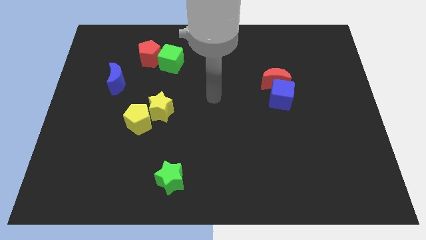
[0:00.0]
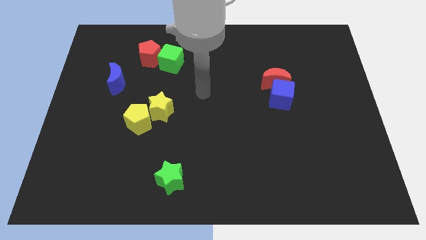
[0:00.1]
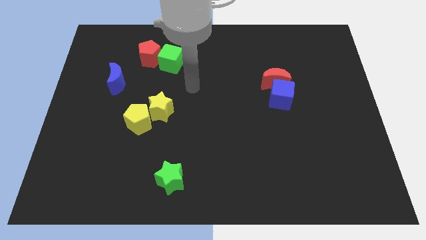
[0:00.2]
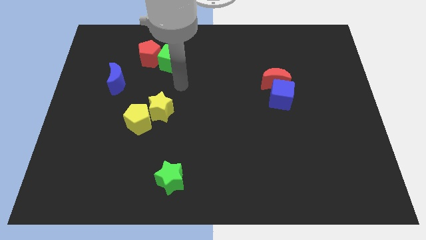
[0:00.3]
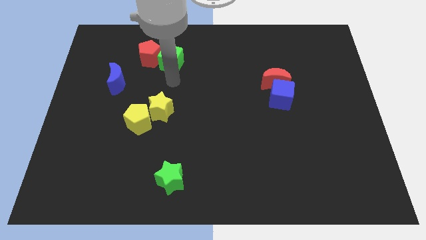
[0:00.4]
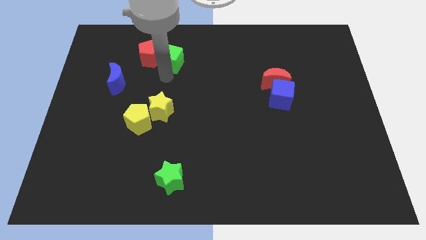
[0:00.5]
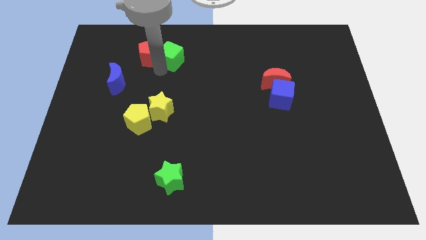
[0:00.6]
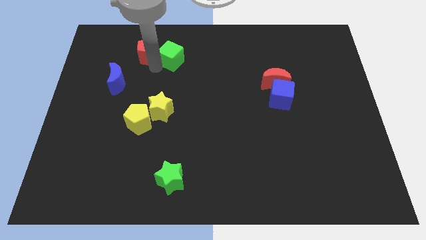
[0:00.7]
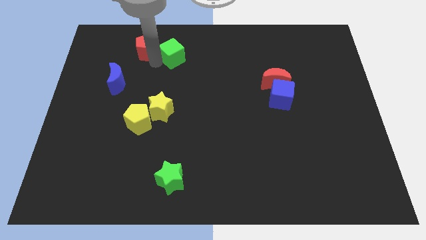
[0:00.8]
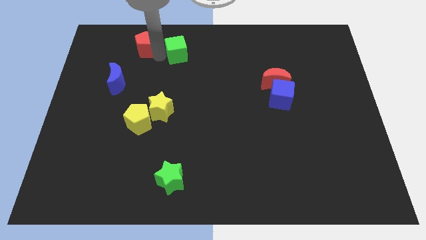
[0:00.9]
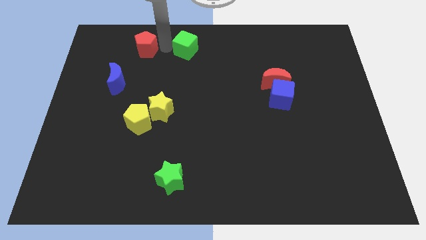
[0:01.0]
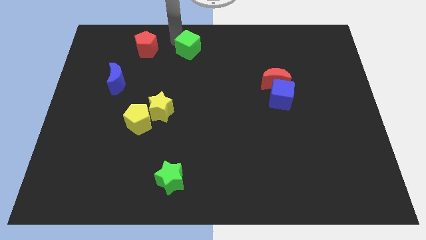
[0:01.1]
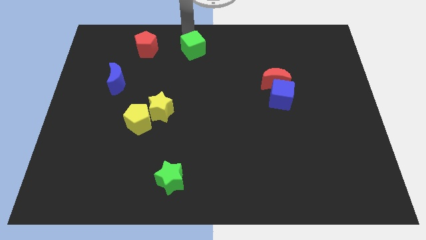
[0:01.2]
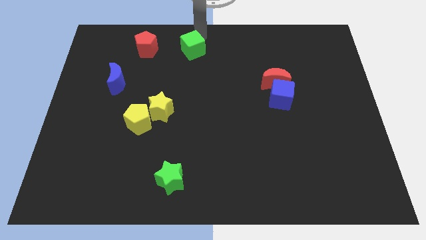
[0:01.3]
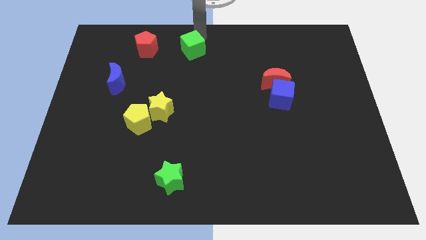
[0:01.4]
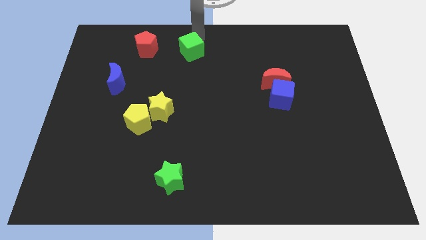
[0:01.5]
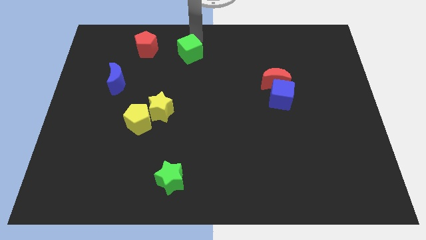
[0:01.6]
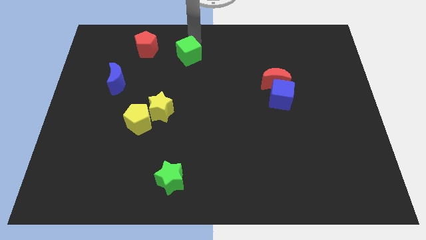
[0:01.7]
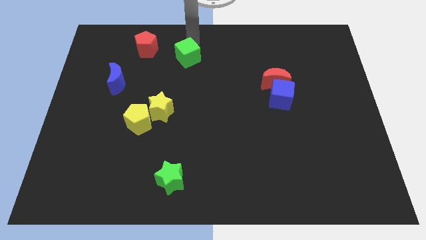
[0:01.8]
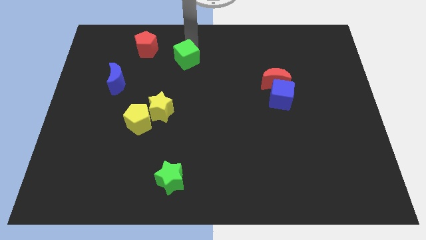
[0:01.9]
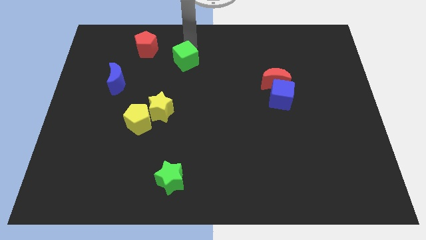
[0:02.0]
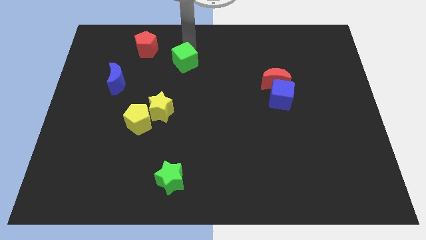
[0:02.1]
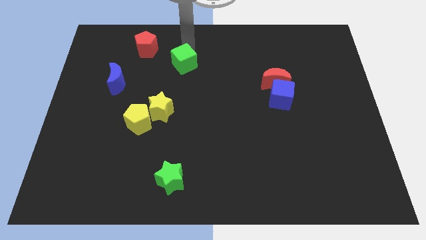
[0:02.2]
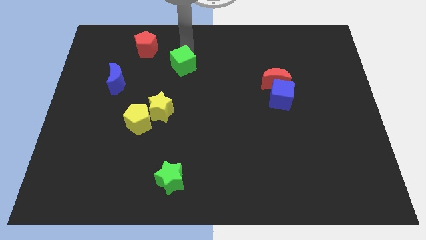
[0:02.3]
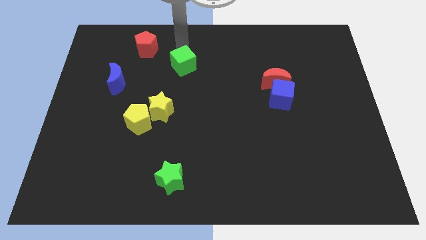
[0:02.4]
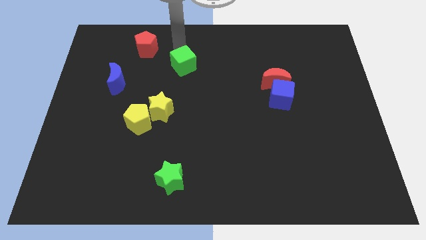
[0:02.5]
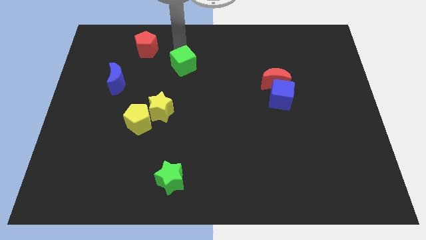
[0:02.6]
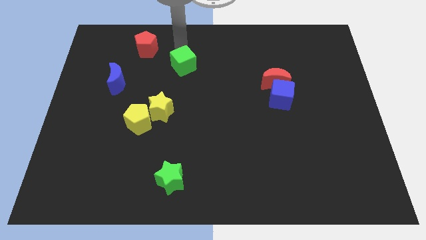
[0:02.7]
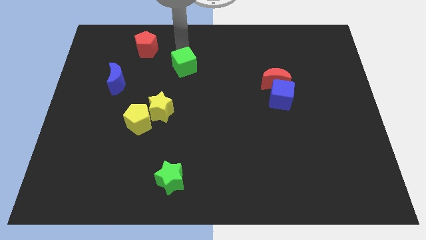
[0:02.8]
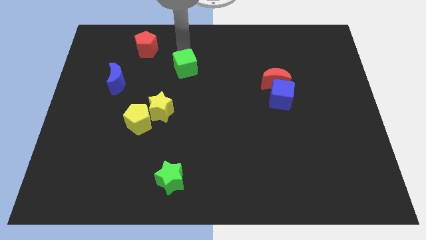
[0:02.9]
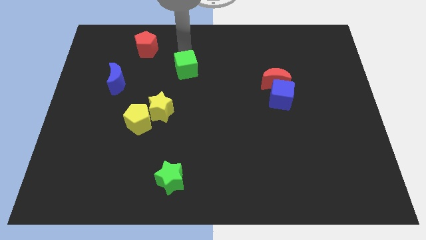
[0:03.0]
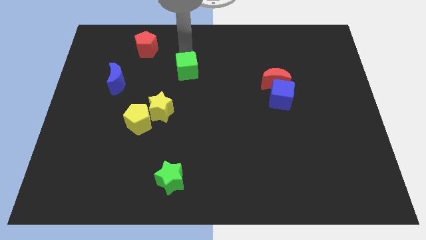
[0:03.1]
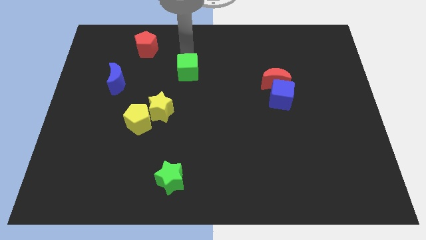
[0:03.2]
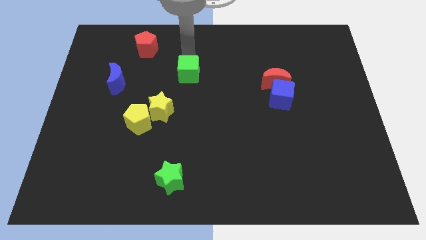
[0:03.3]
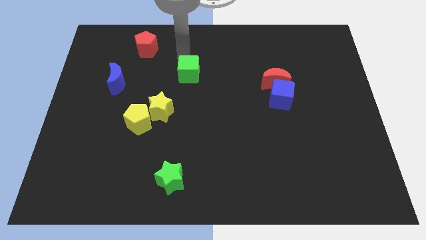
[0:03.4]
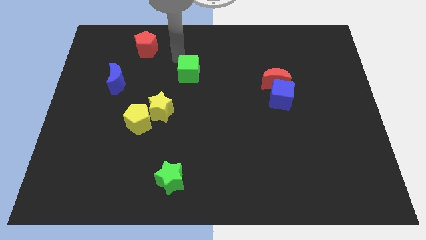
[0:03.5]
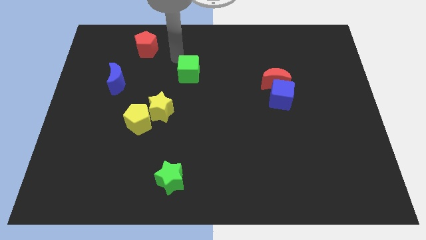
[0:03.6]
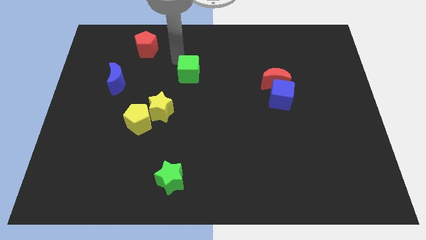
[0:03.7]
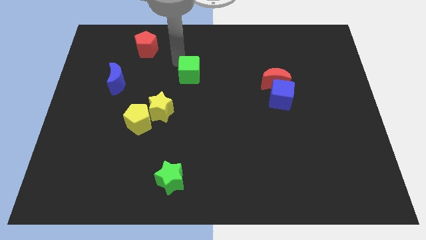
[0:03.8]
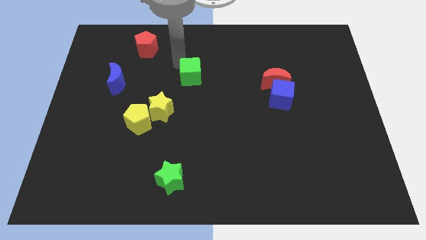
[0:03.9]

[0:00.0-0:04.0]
slightly push the green cube down and then right

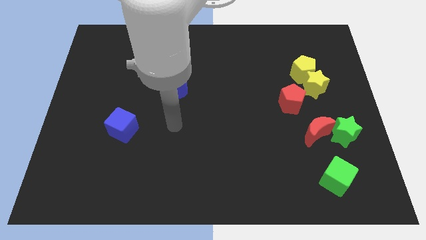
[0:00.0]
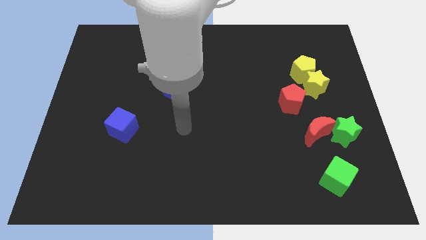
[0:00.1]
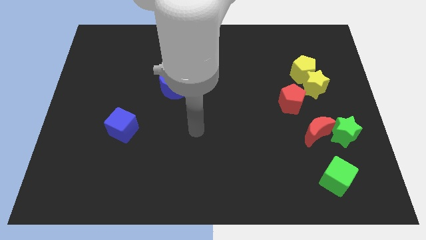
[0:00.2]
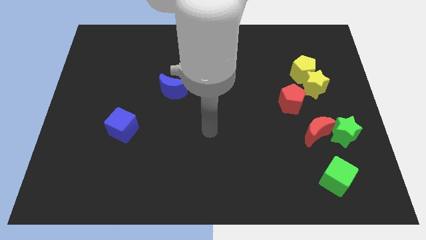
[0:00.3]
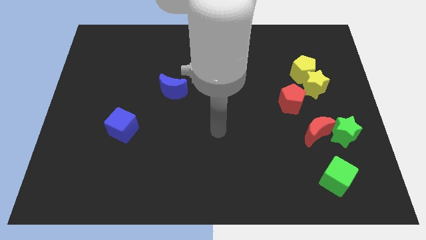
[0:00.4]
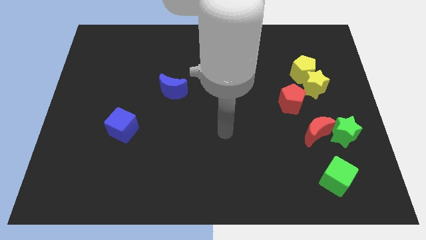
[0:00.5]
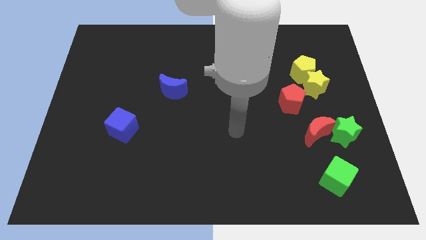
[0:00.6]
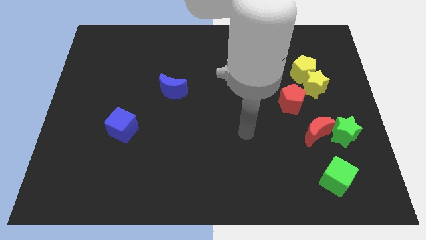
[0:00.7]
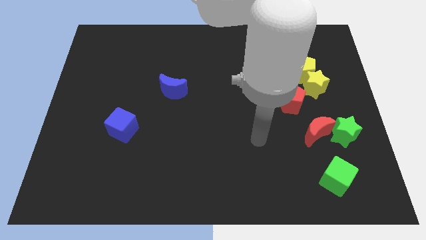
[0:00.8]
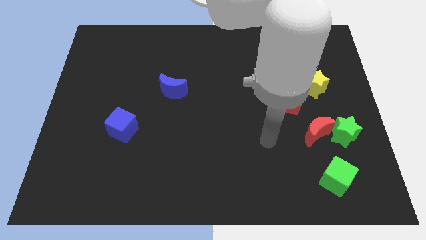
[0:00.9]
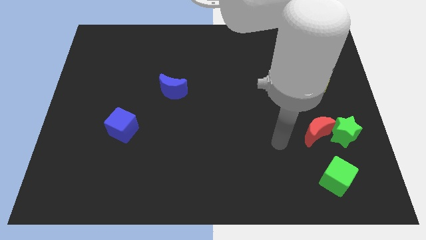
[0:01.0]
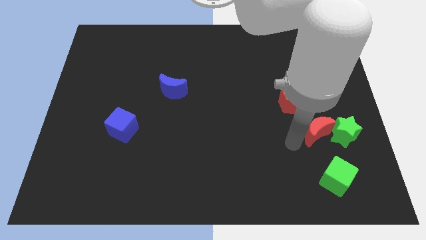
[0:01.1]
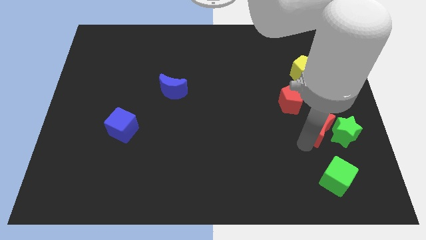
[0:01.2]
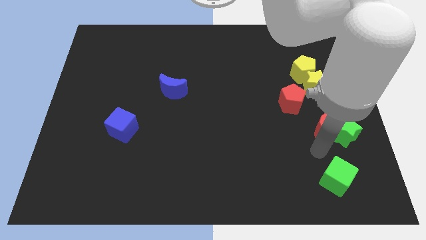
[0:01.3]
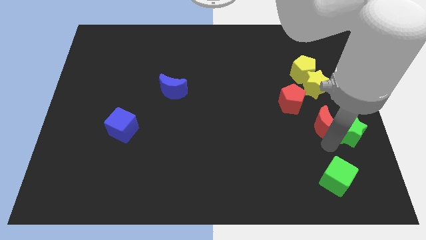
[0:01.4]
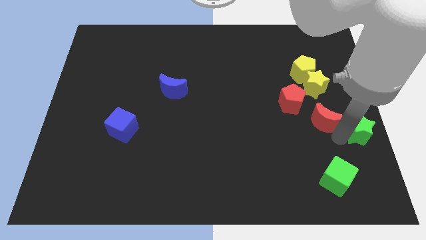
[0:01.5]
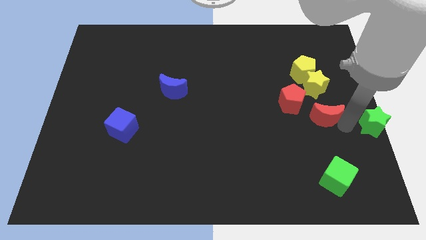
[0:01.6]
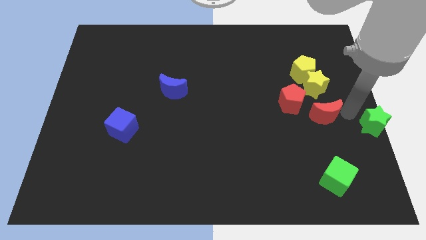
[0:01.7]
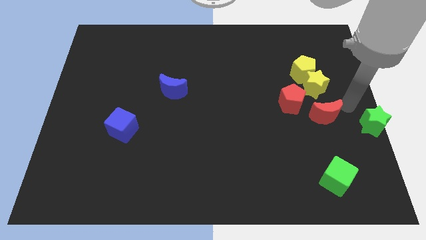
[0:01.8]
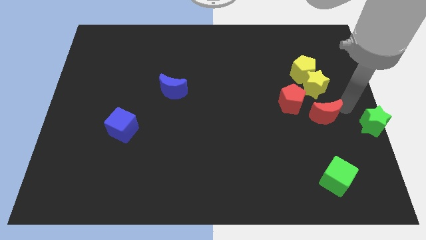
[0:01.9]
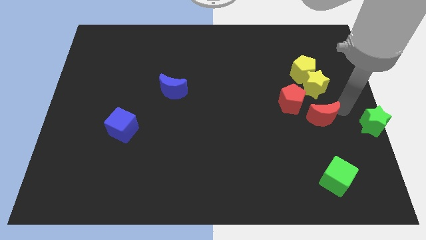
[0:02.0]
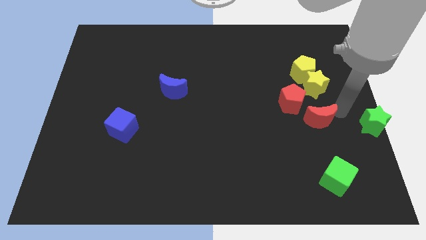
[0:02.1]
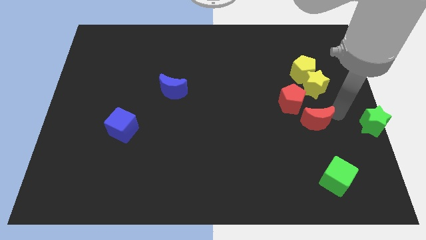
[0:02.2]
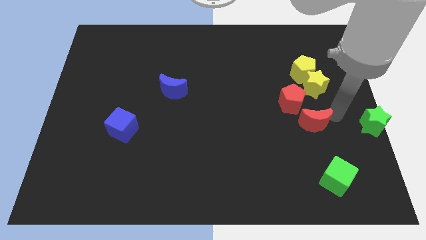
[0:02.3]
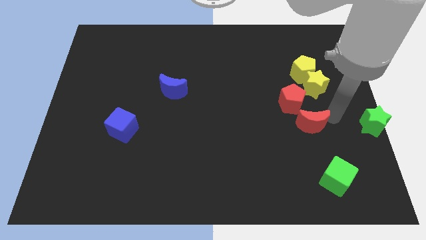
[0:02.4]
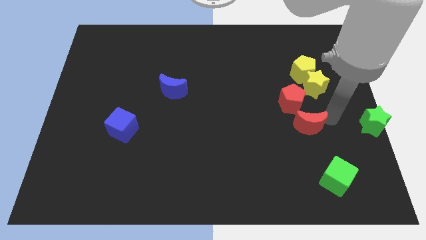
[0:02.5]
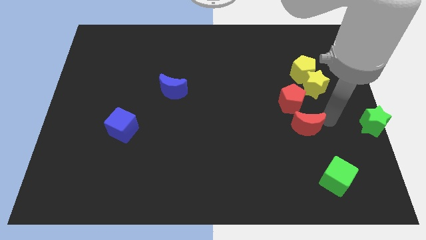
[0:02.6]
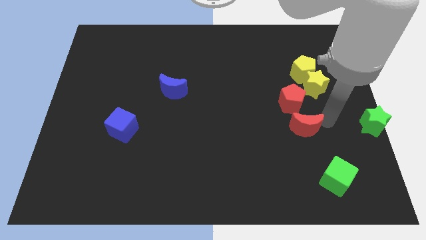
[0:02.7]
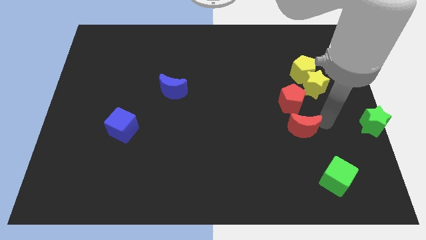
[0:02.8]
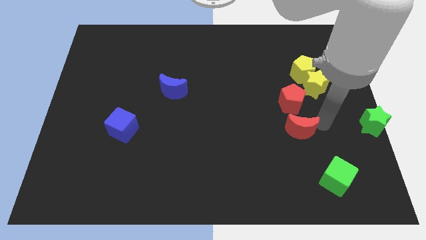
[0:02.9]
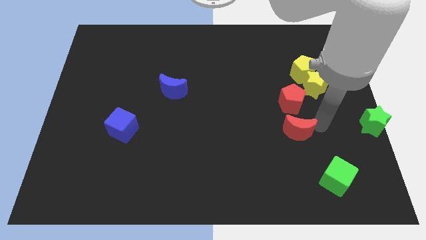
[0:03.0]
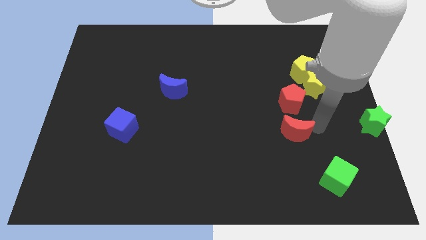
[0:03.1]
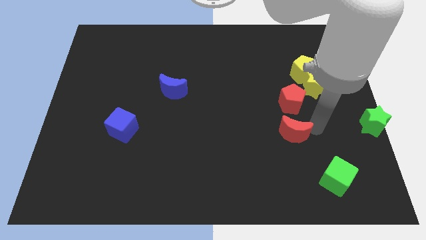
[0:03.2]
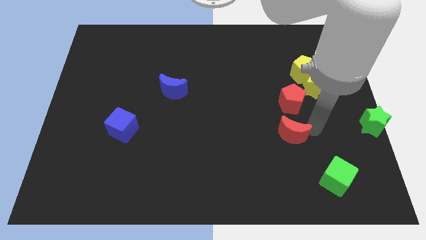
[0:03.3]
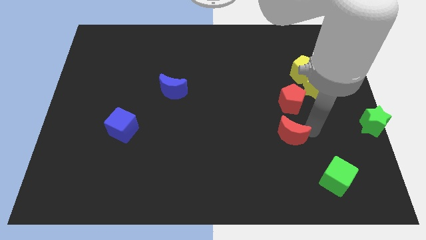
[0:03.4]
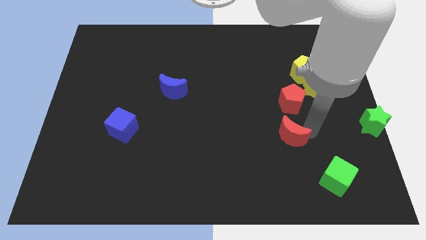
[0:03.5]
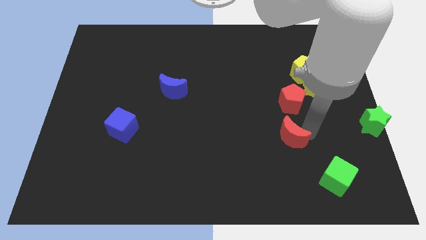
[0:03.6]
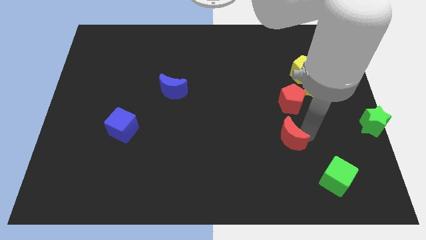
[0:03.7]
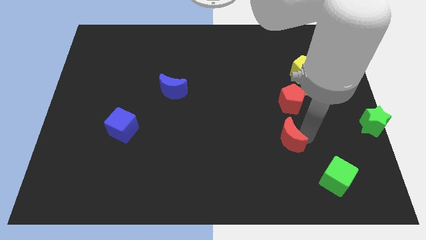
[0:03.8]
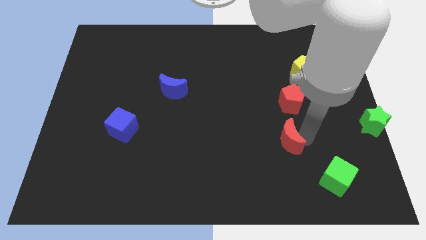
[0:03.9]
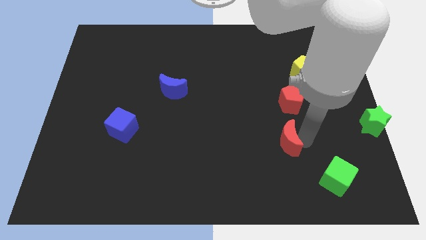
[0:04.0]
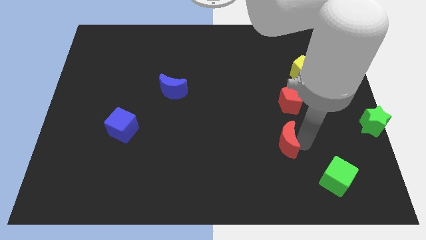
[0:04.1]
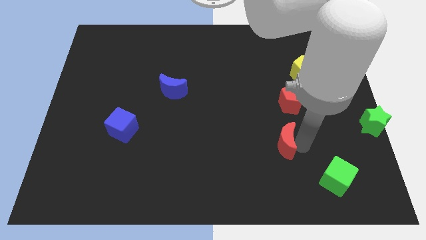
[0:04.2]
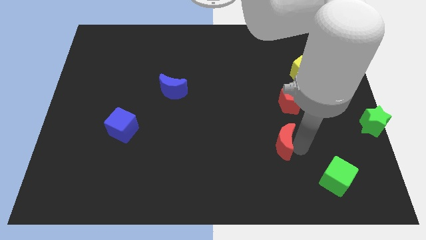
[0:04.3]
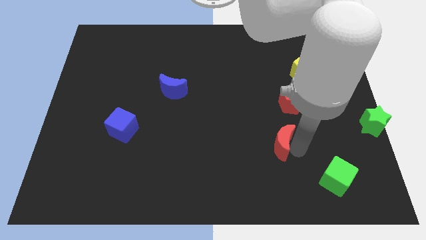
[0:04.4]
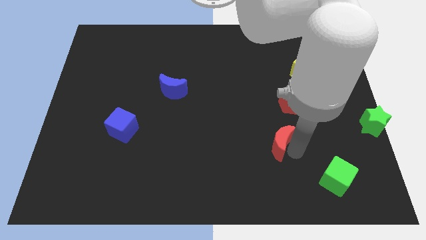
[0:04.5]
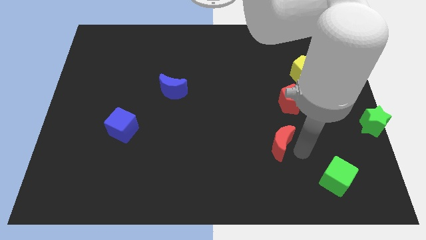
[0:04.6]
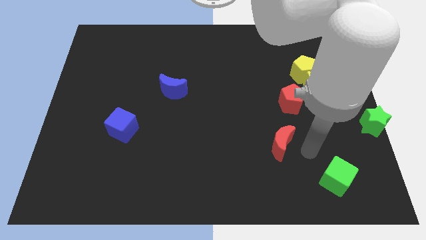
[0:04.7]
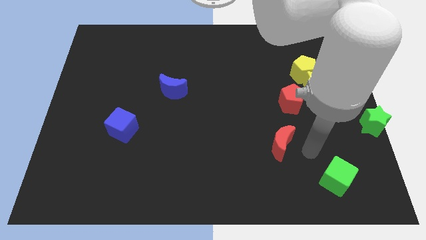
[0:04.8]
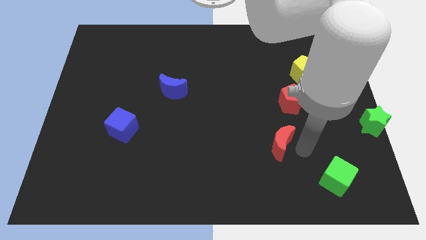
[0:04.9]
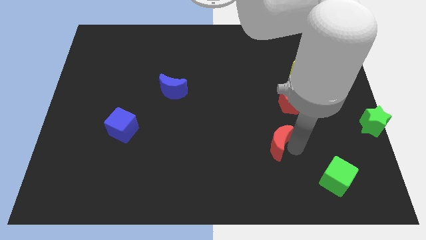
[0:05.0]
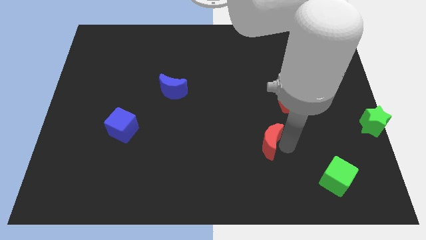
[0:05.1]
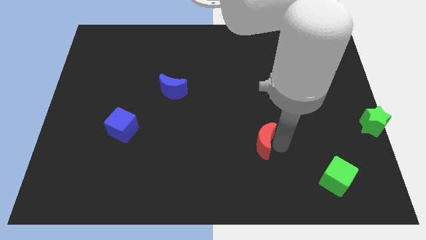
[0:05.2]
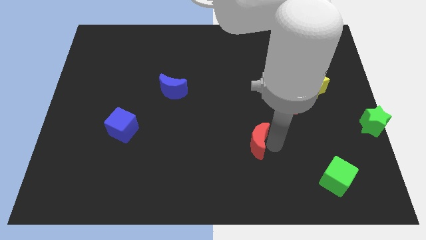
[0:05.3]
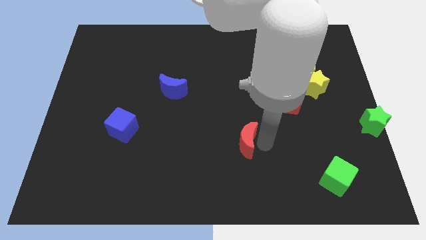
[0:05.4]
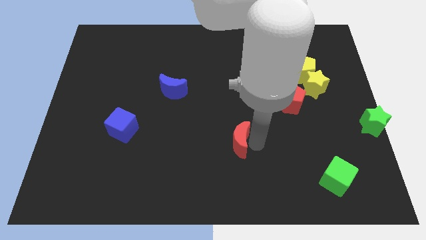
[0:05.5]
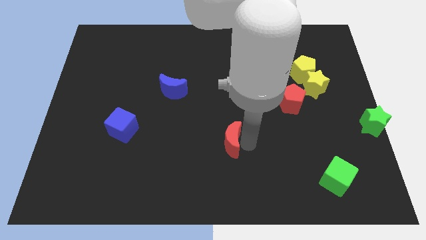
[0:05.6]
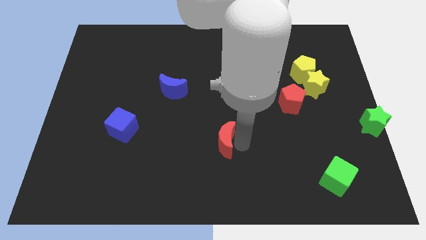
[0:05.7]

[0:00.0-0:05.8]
move the red moon left
